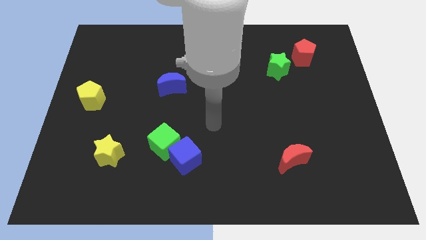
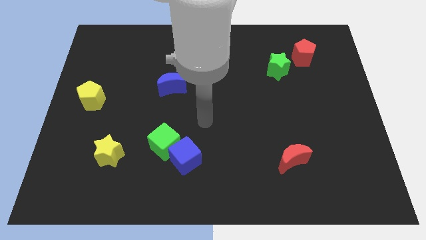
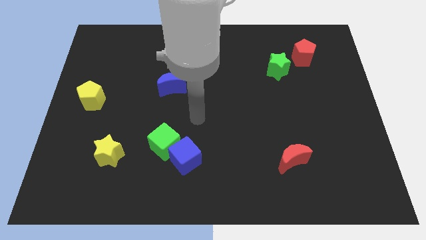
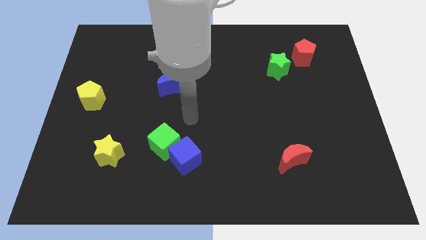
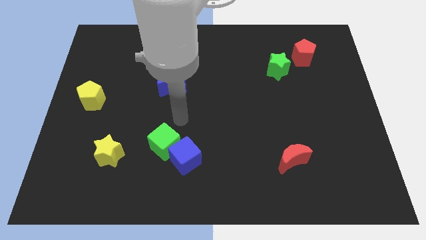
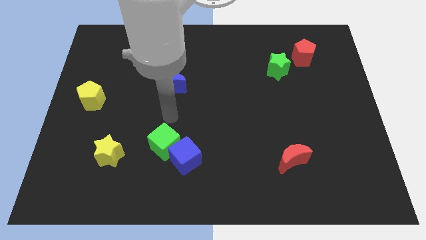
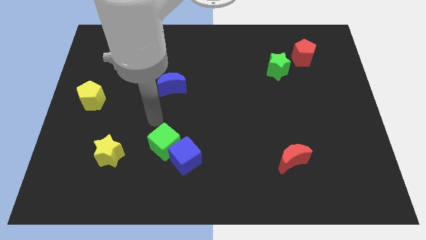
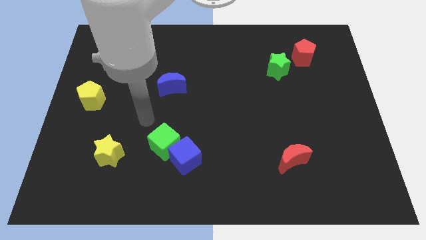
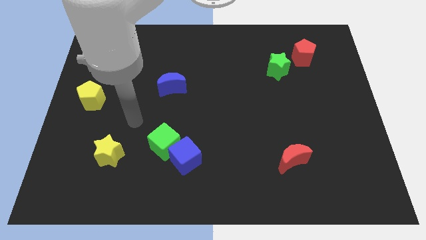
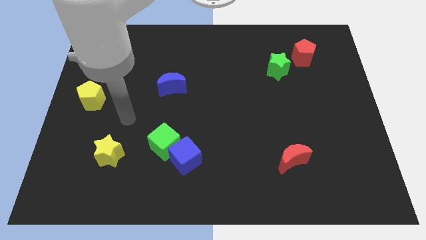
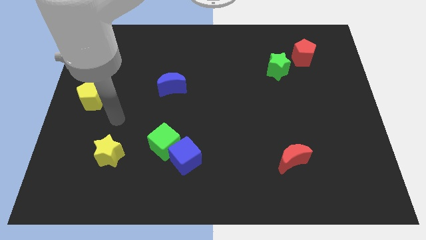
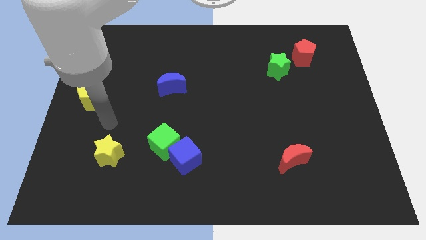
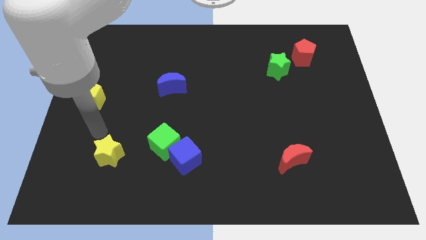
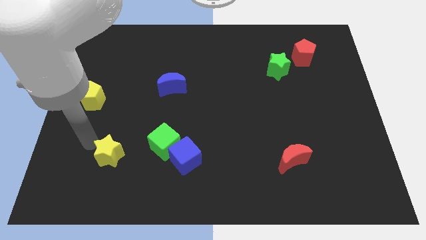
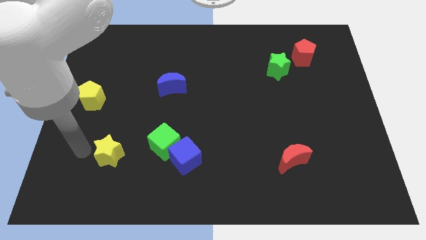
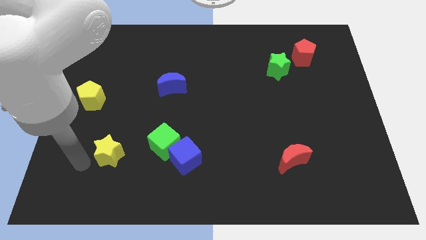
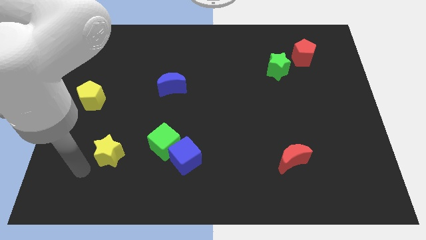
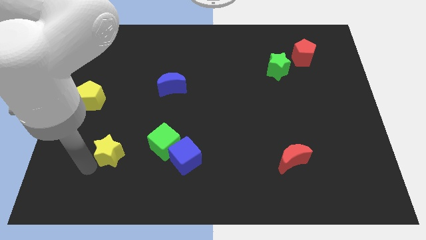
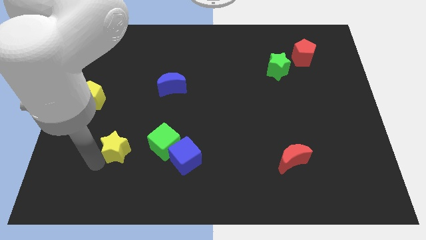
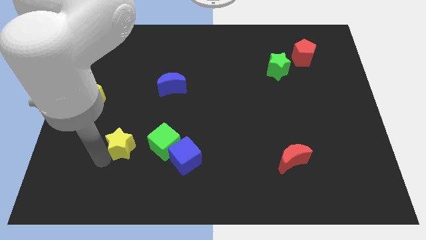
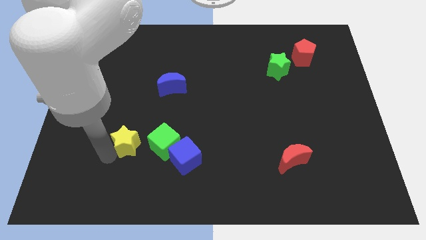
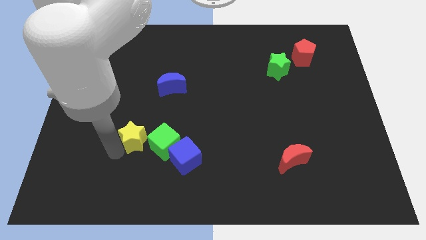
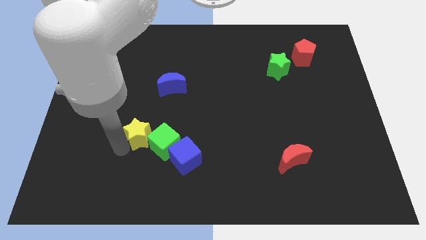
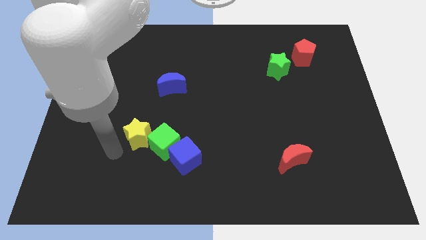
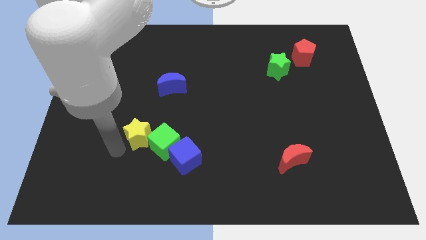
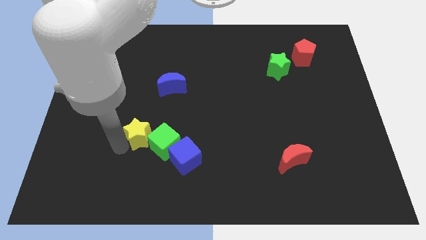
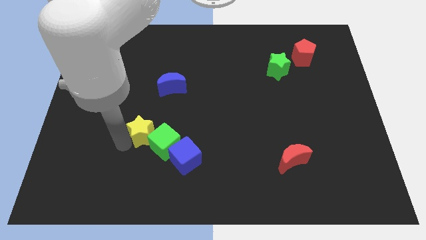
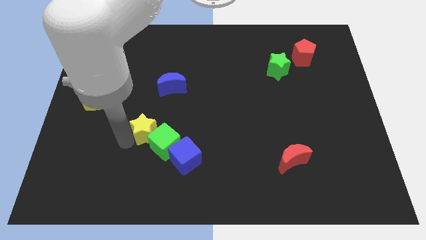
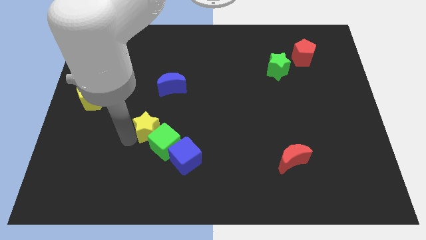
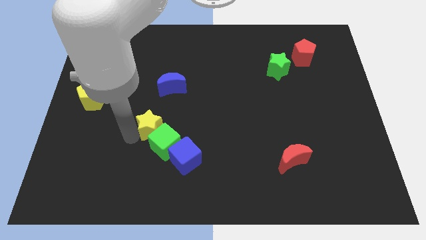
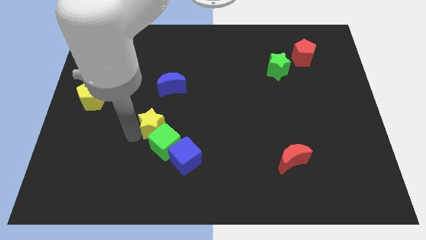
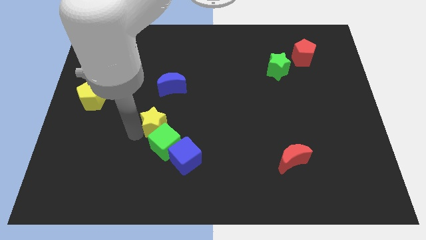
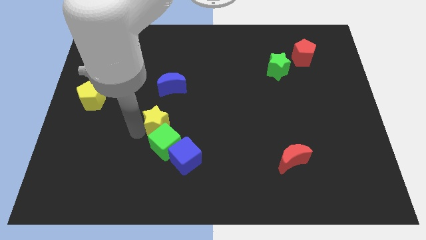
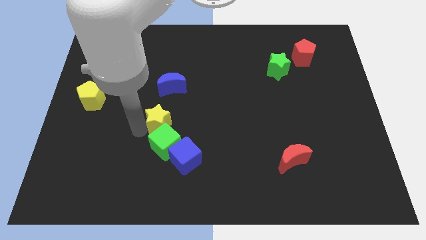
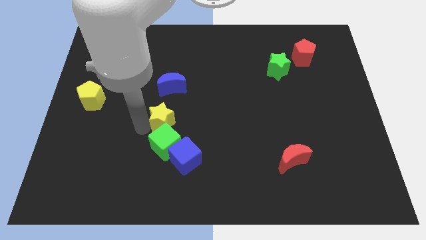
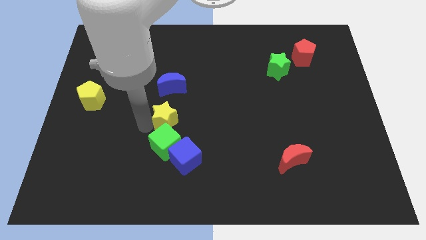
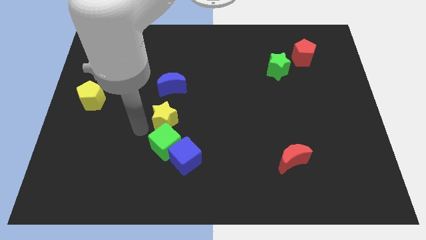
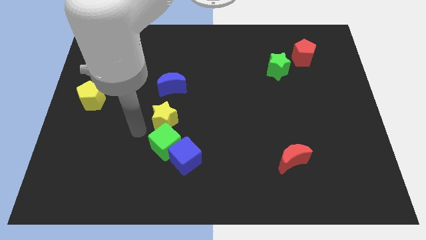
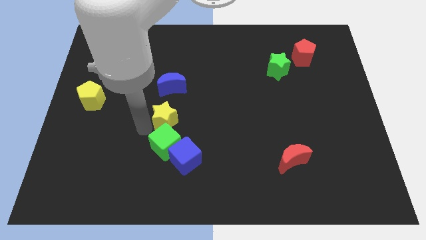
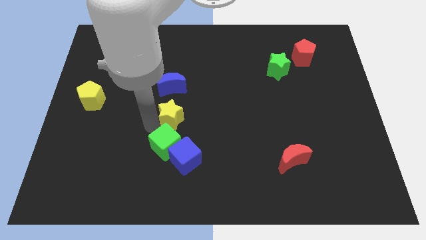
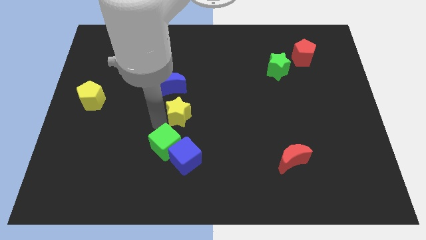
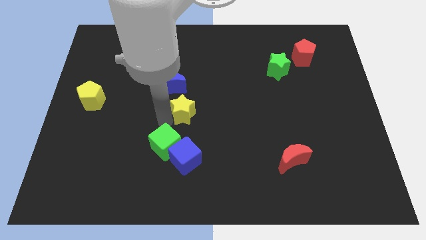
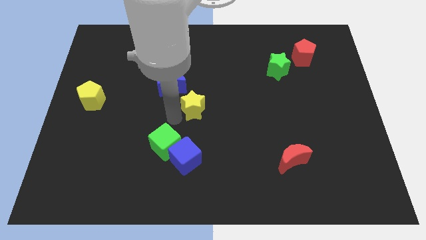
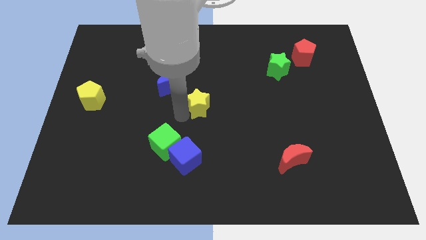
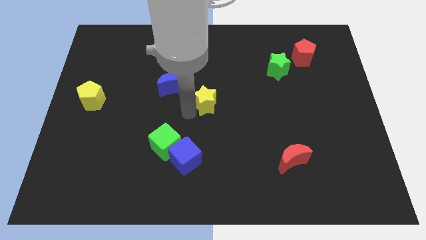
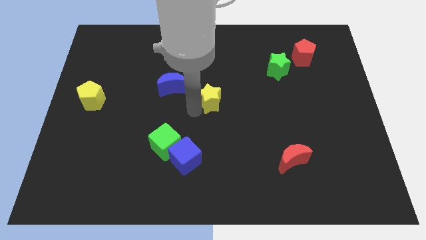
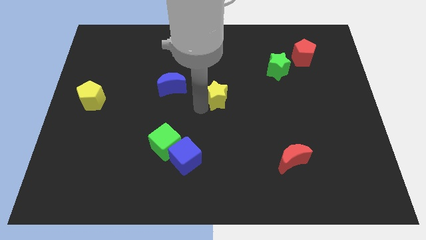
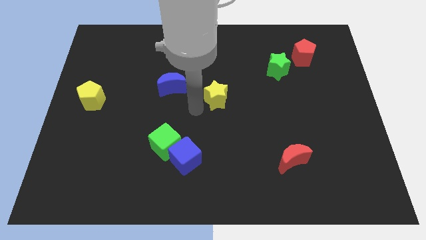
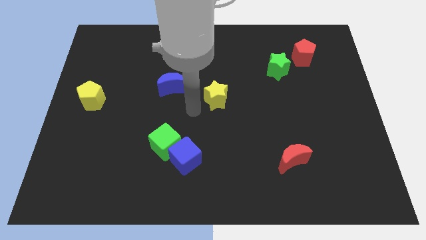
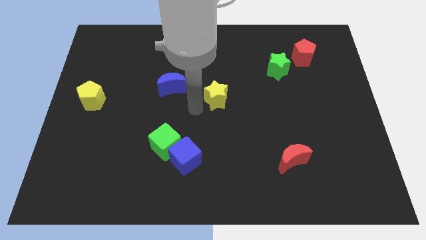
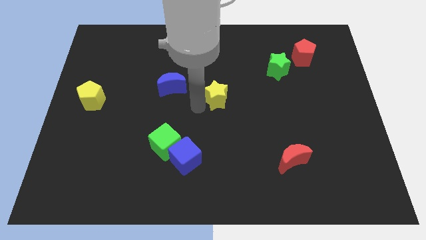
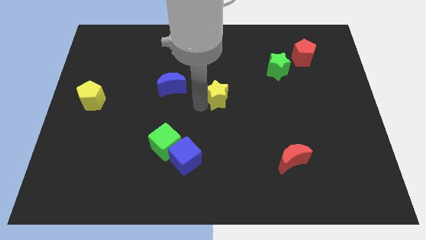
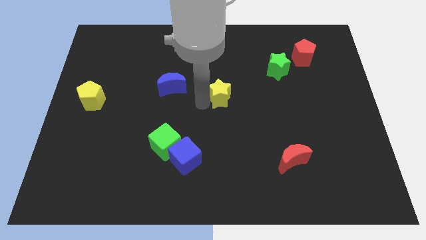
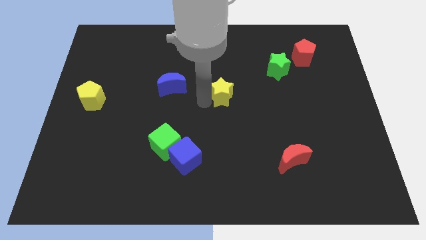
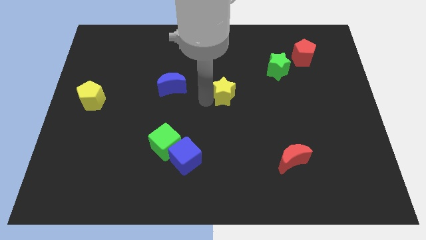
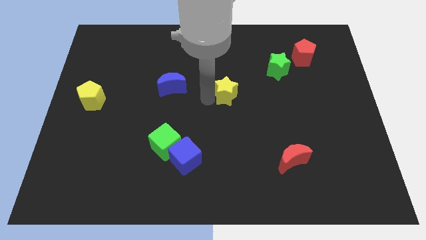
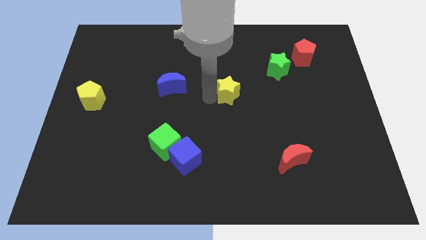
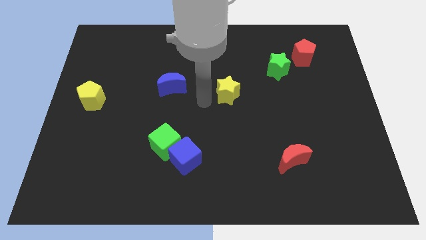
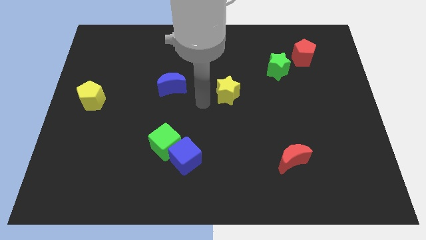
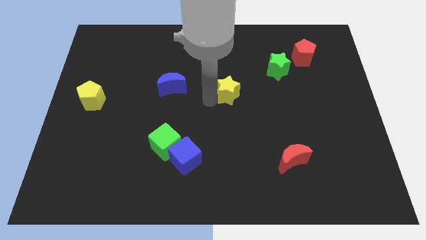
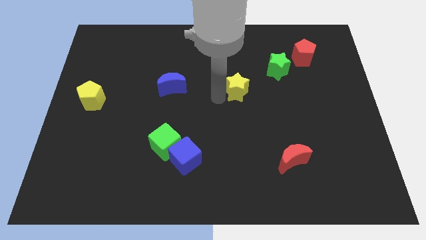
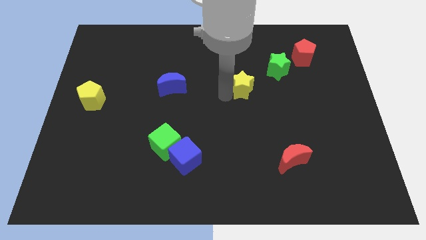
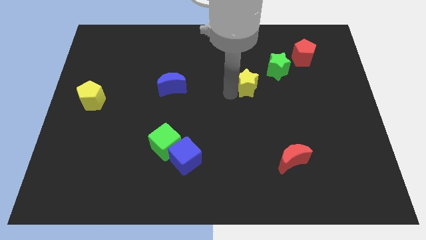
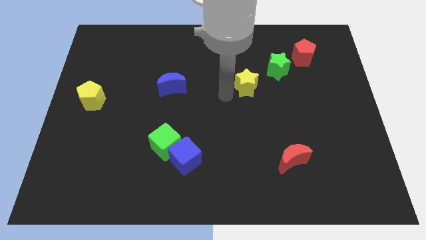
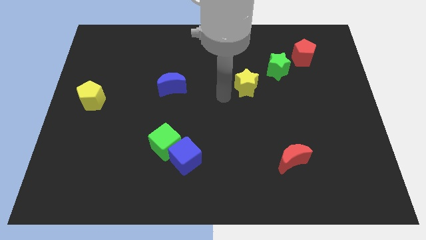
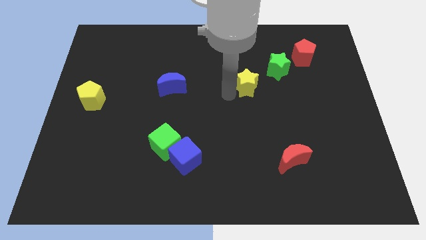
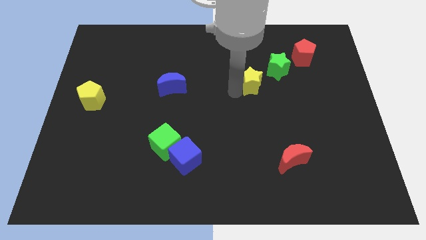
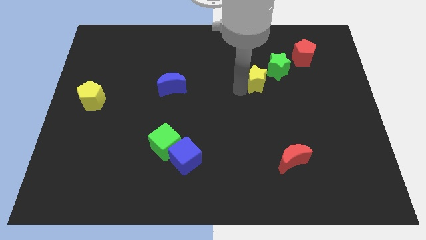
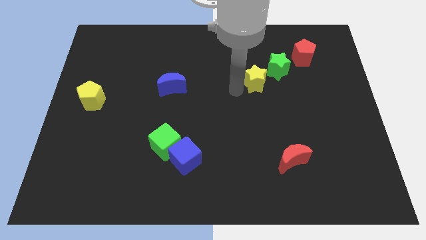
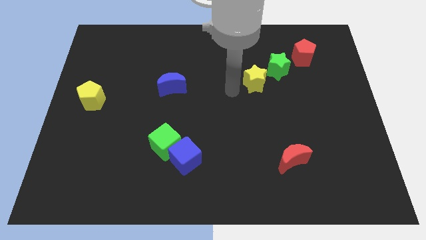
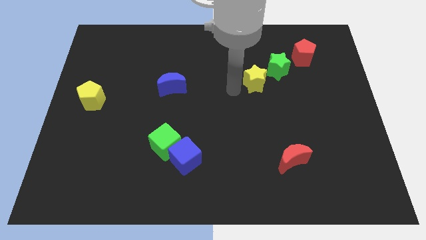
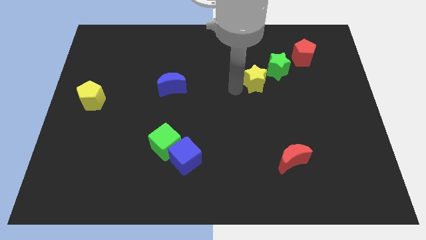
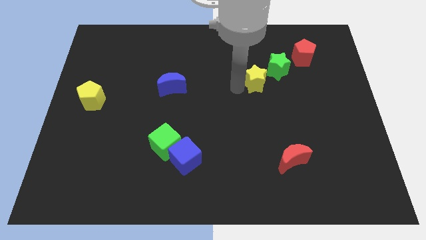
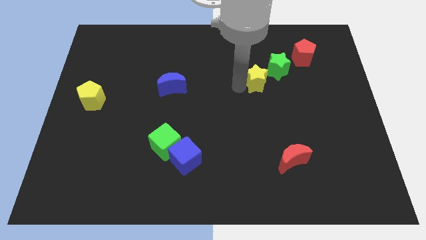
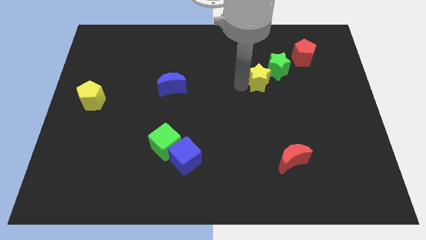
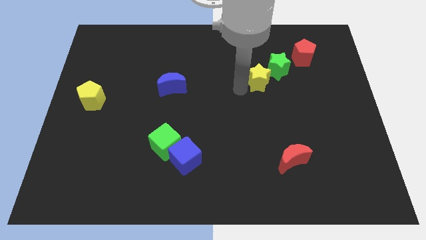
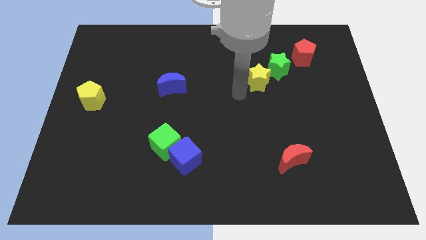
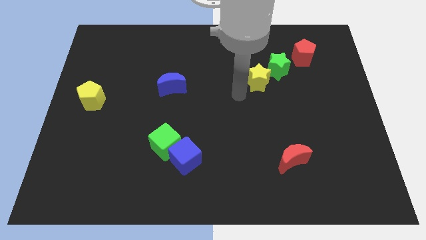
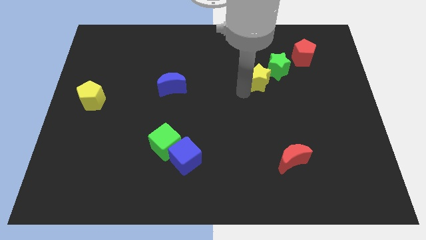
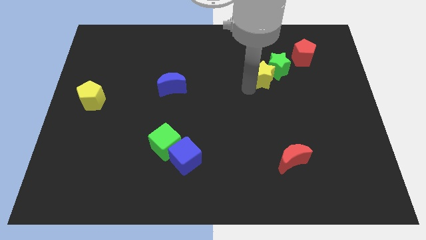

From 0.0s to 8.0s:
put the yellow star close to the green star

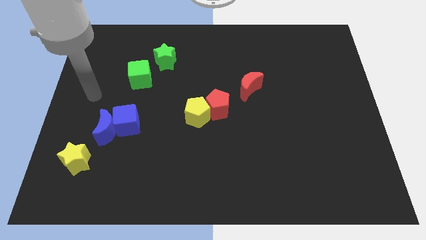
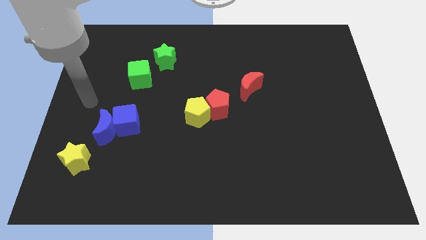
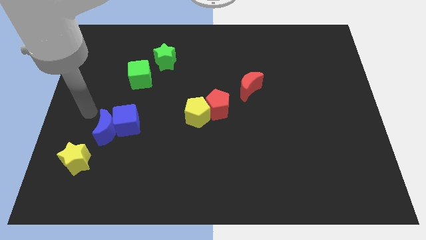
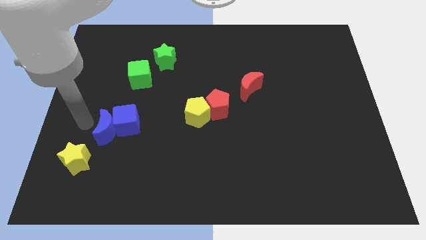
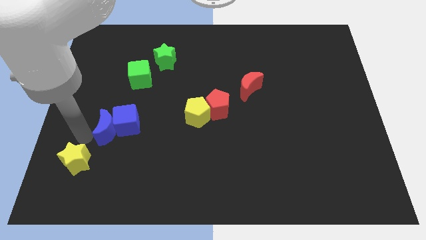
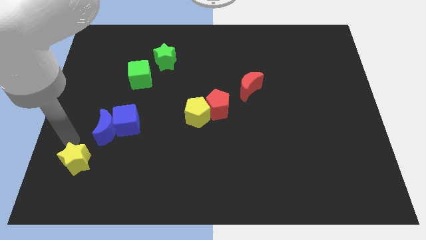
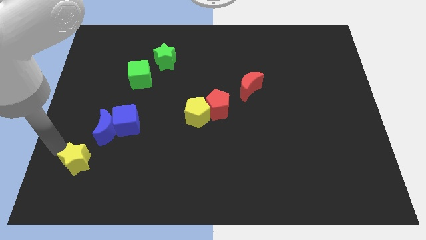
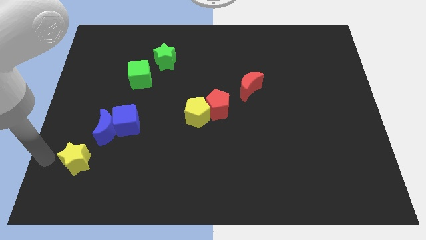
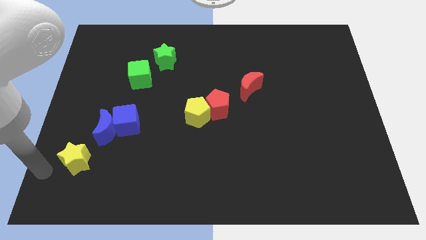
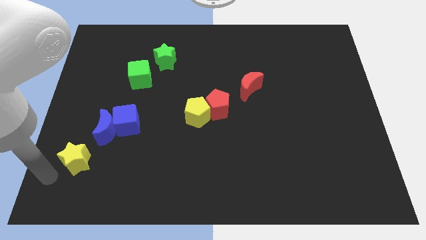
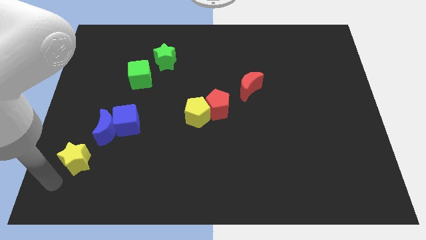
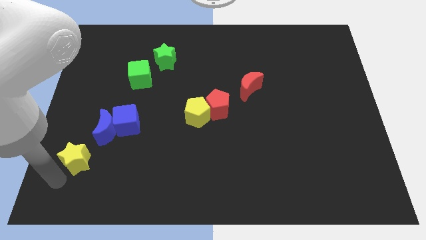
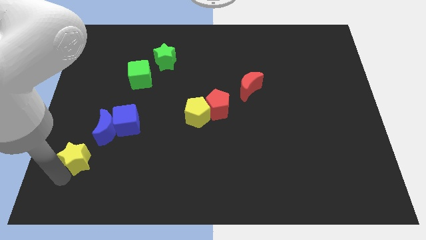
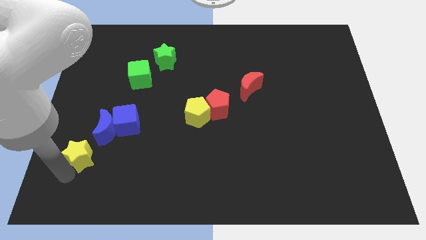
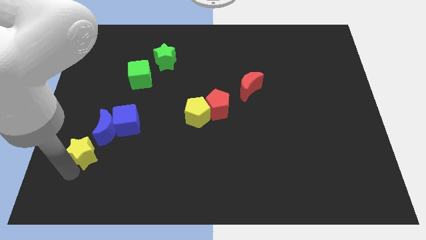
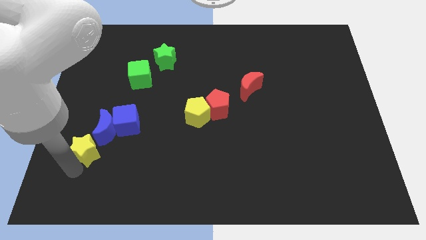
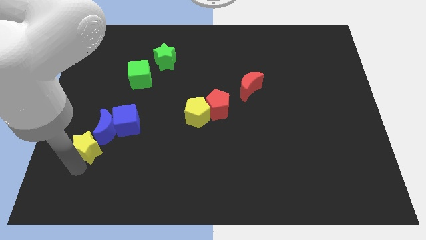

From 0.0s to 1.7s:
slide the yellow star towards the blue moon
